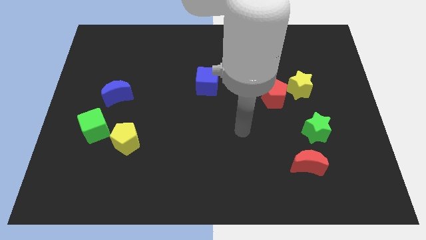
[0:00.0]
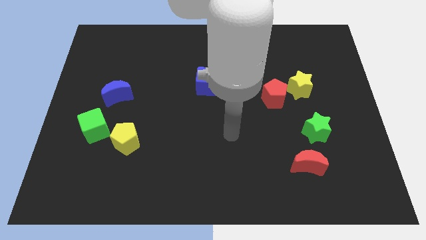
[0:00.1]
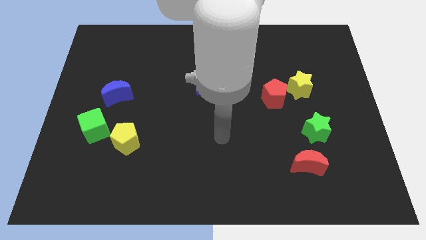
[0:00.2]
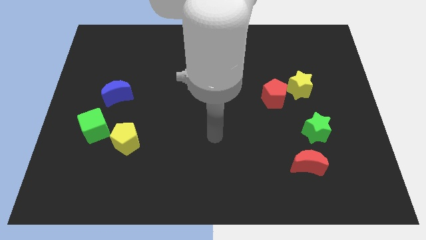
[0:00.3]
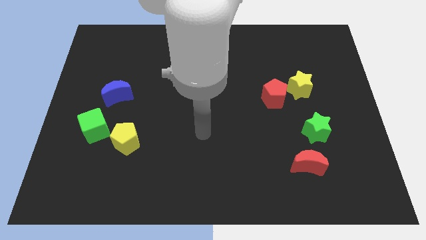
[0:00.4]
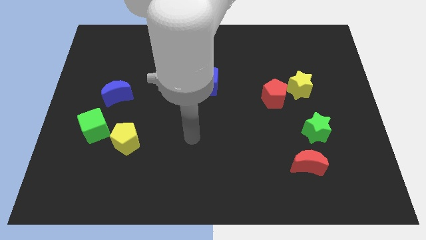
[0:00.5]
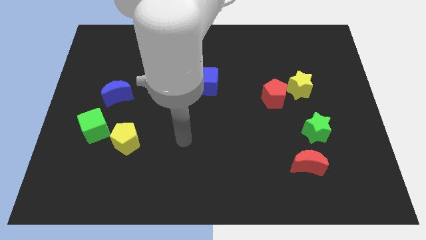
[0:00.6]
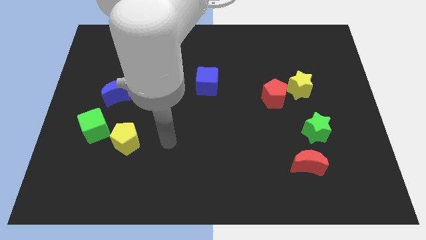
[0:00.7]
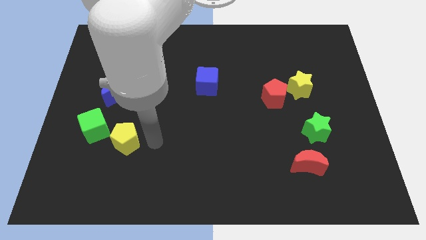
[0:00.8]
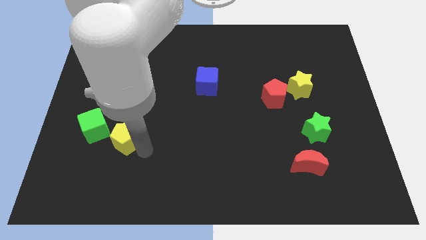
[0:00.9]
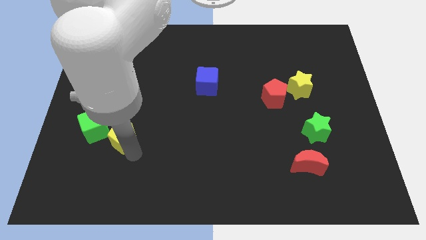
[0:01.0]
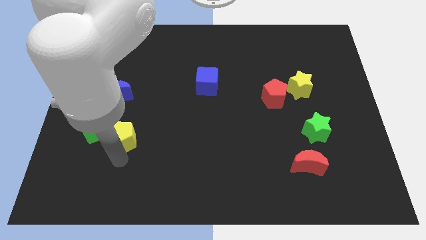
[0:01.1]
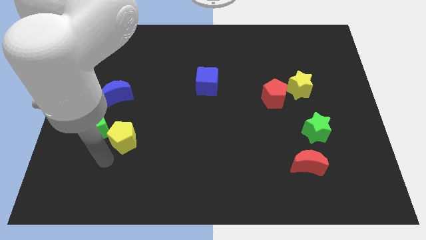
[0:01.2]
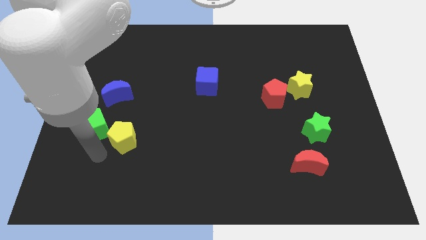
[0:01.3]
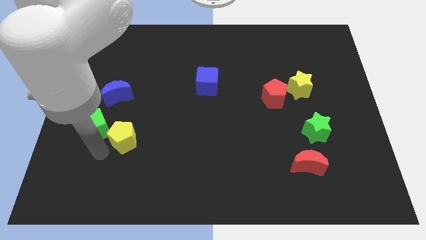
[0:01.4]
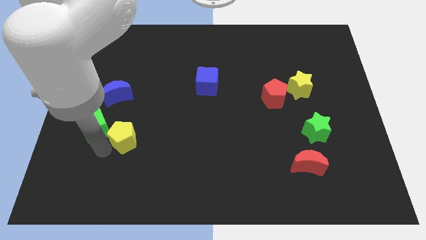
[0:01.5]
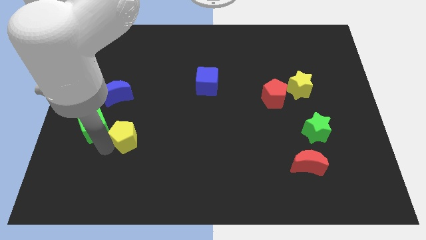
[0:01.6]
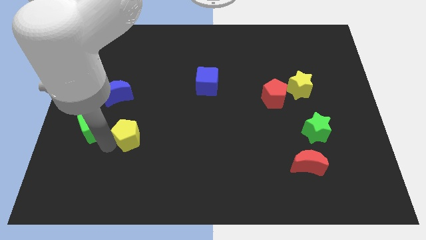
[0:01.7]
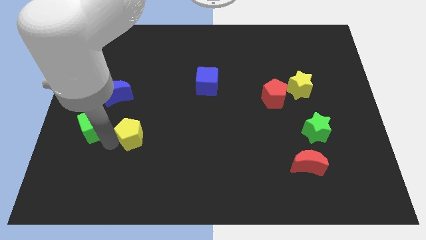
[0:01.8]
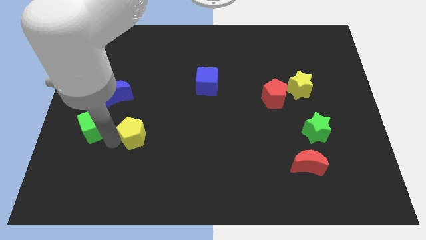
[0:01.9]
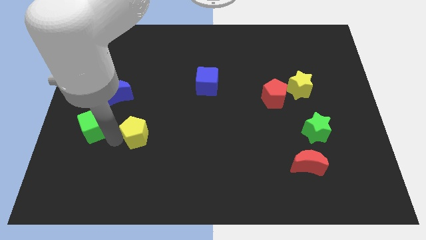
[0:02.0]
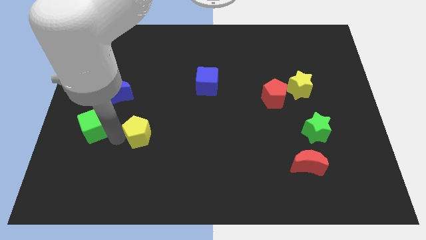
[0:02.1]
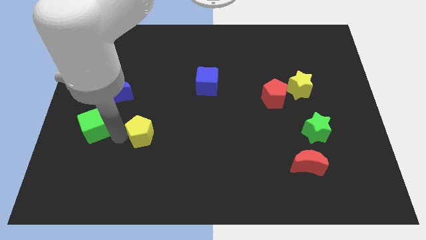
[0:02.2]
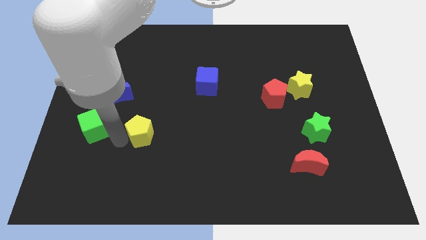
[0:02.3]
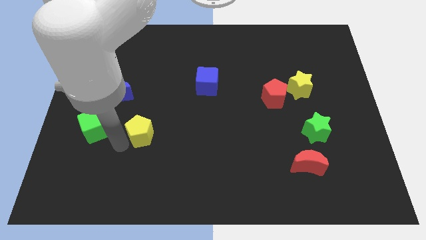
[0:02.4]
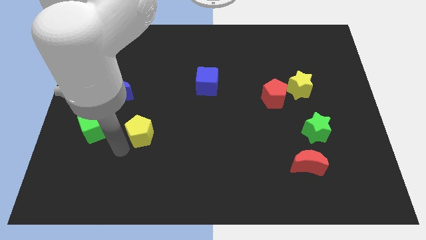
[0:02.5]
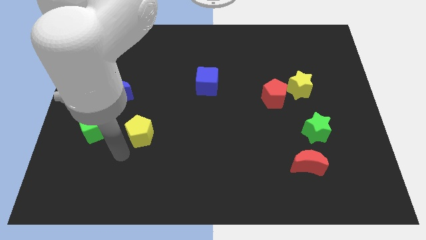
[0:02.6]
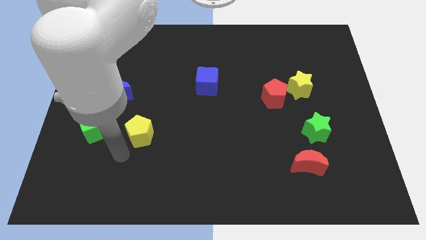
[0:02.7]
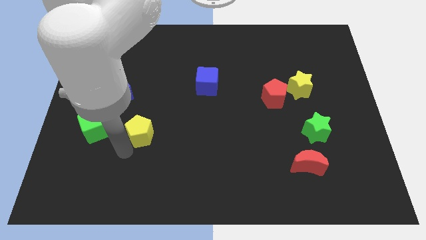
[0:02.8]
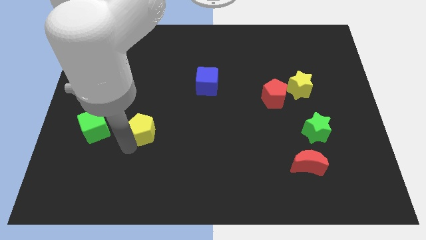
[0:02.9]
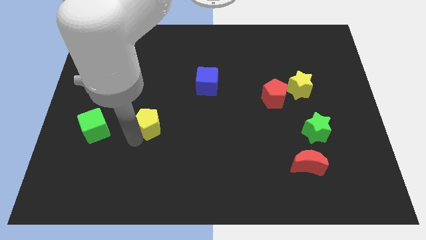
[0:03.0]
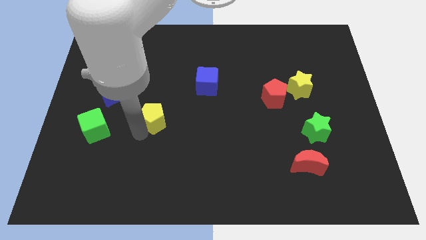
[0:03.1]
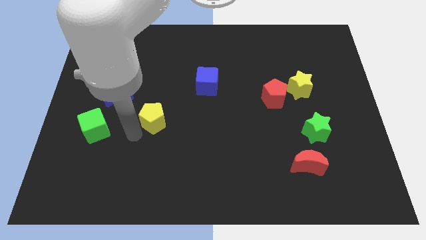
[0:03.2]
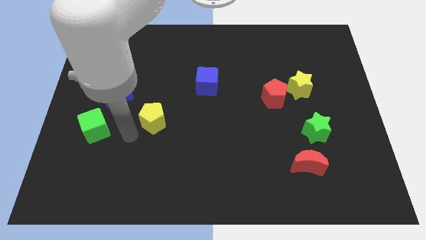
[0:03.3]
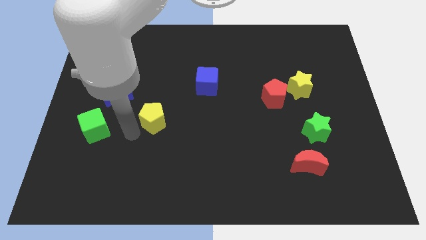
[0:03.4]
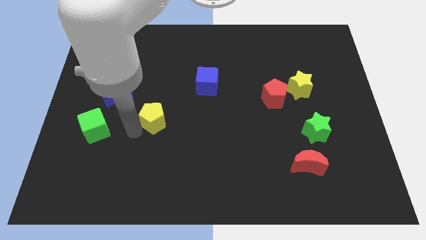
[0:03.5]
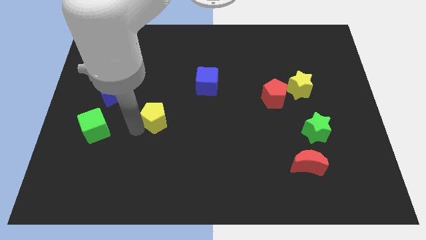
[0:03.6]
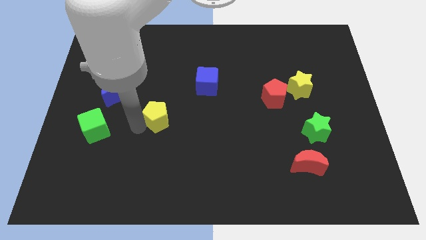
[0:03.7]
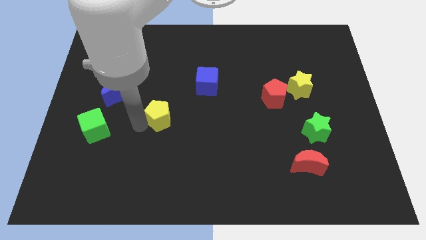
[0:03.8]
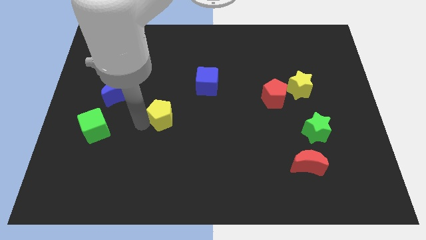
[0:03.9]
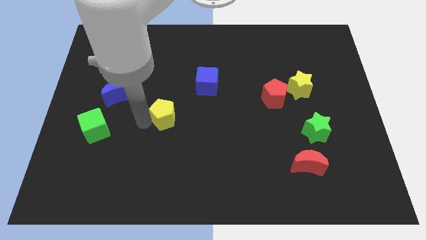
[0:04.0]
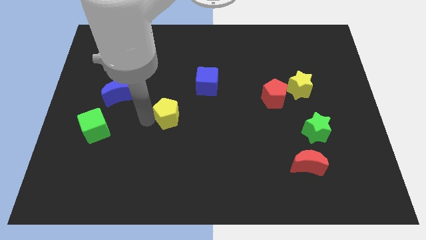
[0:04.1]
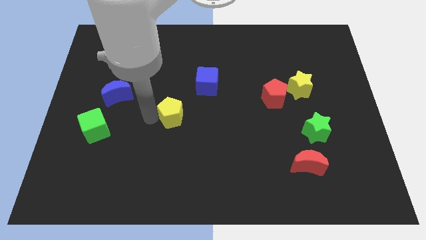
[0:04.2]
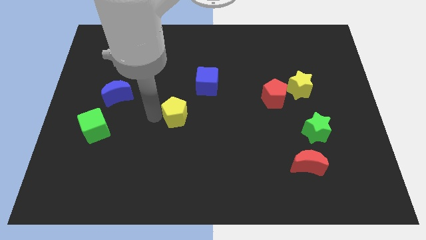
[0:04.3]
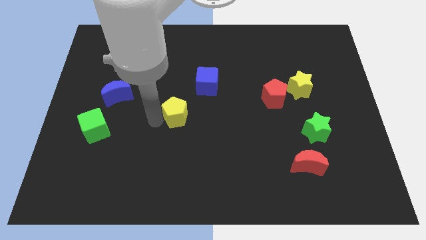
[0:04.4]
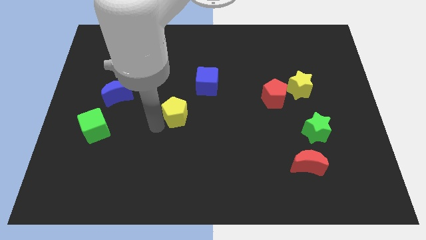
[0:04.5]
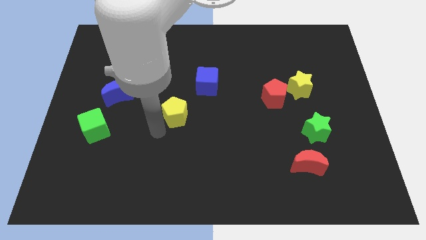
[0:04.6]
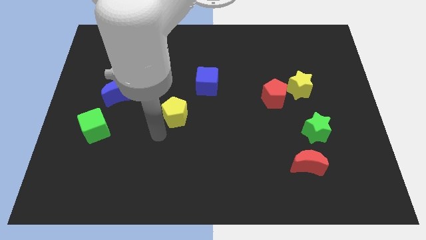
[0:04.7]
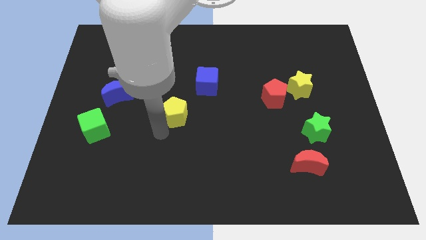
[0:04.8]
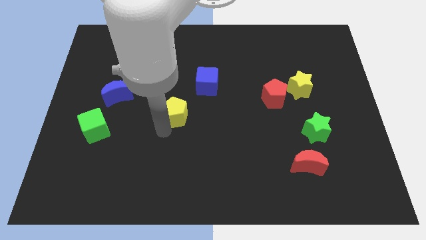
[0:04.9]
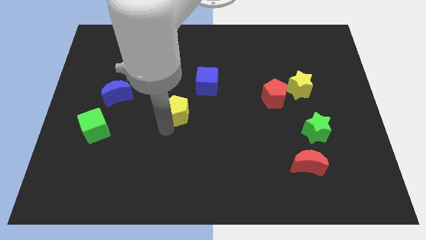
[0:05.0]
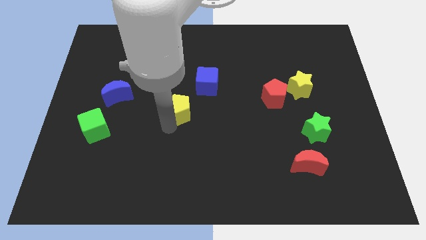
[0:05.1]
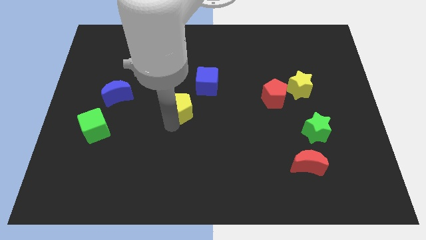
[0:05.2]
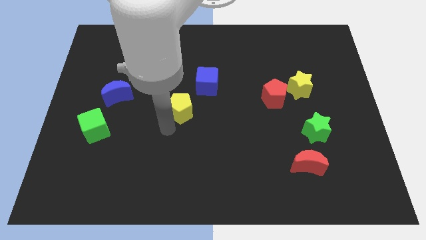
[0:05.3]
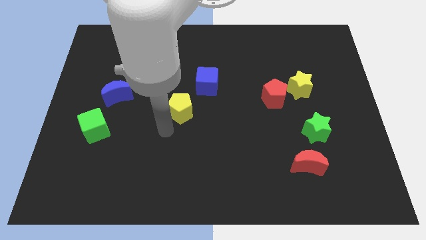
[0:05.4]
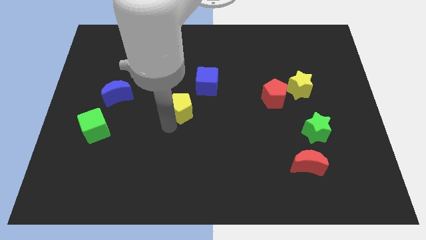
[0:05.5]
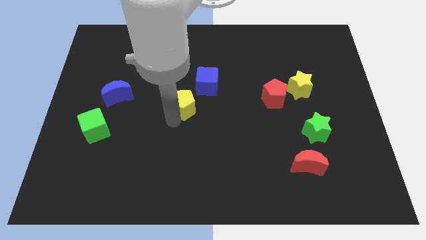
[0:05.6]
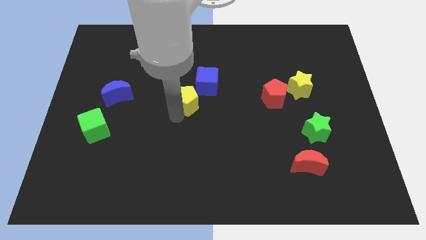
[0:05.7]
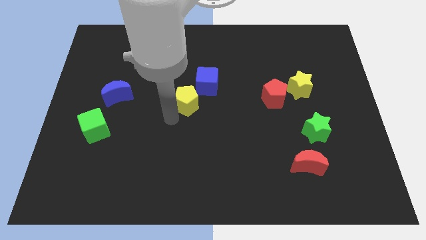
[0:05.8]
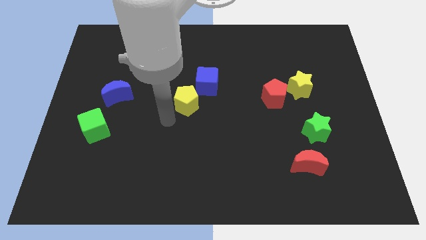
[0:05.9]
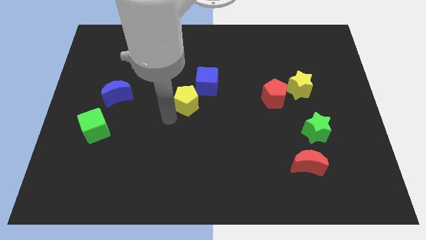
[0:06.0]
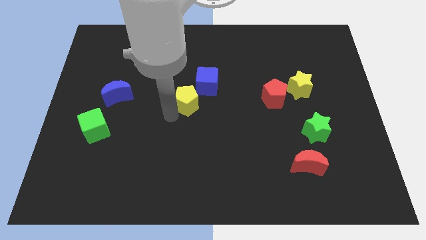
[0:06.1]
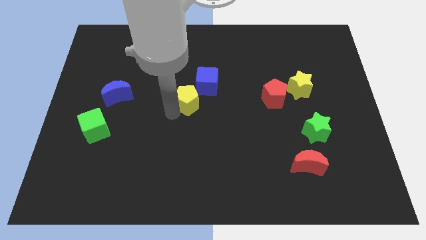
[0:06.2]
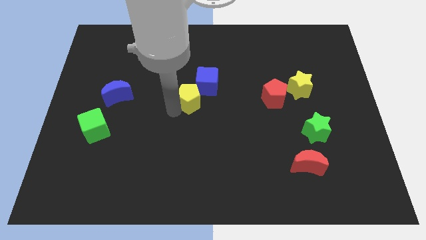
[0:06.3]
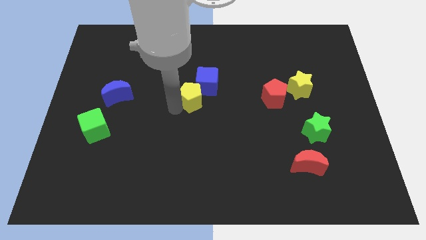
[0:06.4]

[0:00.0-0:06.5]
slide the yellow pentagon next to the blue cube

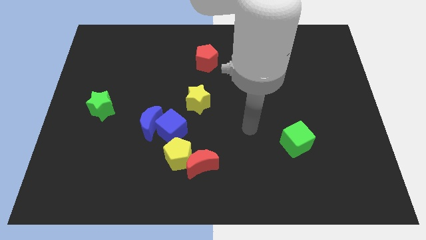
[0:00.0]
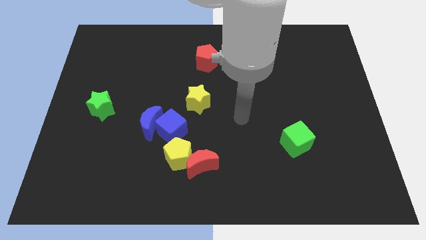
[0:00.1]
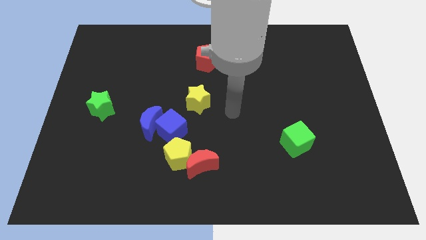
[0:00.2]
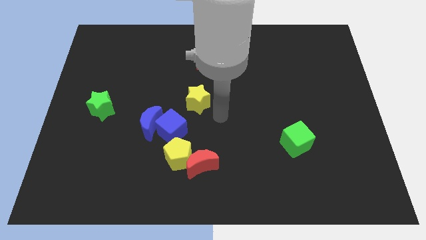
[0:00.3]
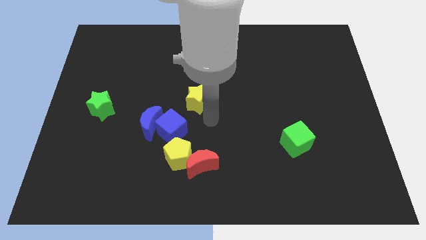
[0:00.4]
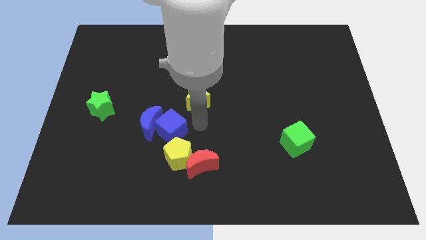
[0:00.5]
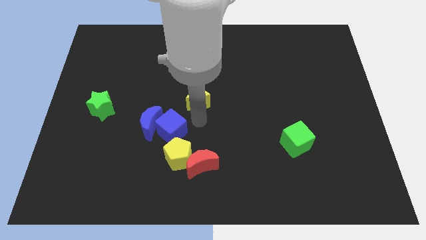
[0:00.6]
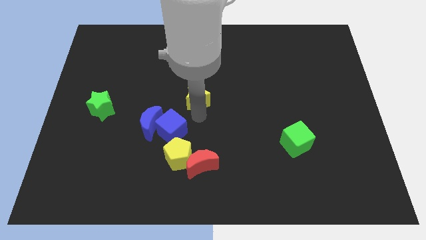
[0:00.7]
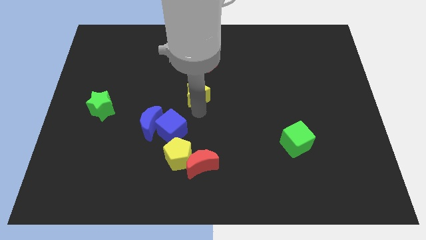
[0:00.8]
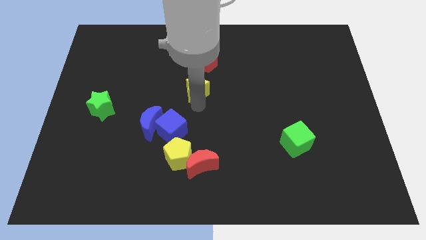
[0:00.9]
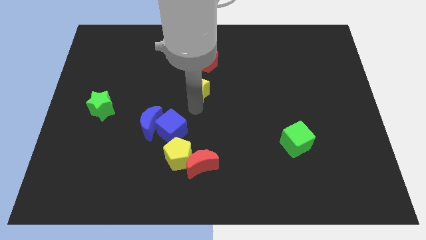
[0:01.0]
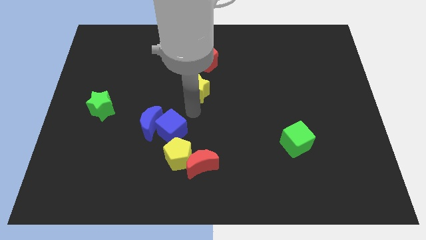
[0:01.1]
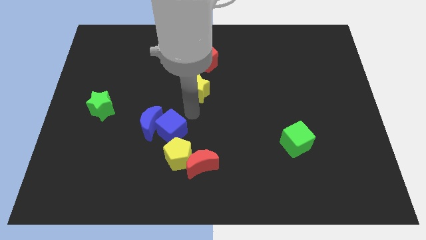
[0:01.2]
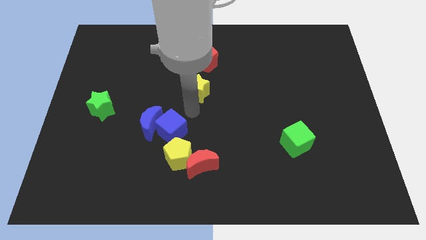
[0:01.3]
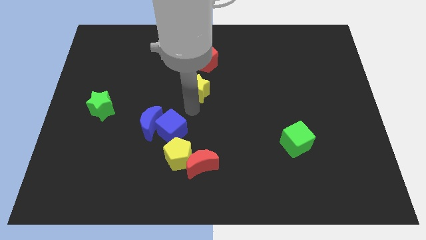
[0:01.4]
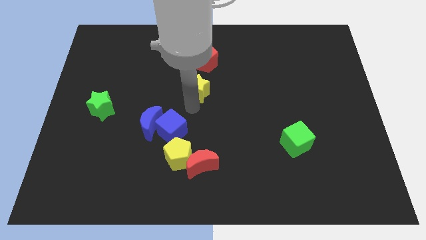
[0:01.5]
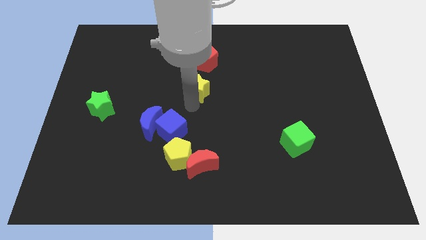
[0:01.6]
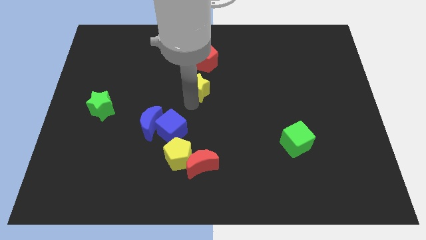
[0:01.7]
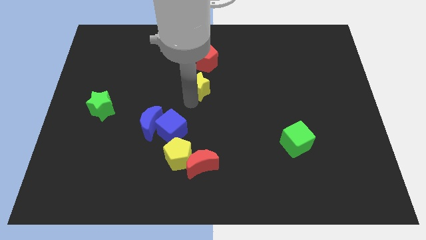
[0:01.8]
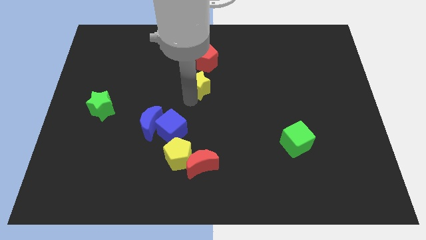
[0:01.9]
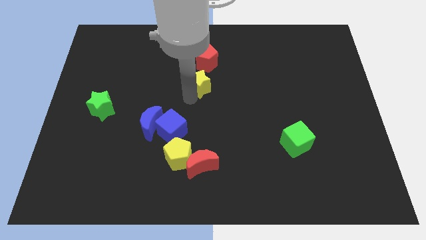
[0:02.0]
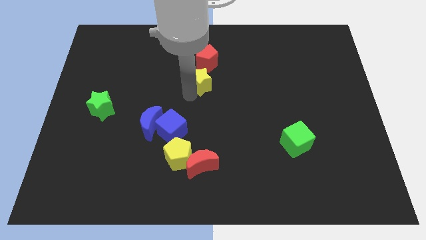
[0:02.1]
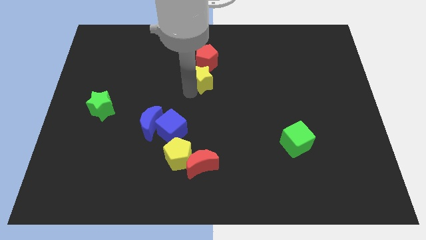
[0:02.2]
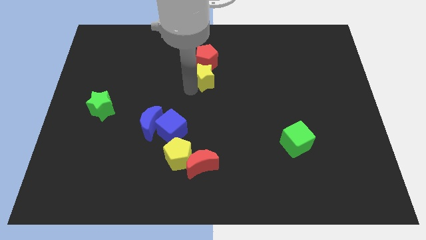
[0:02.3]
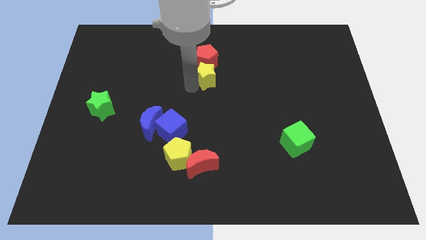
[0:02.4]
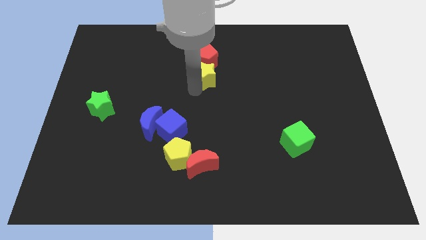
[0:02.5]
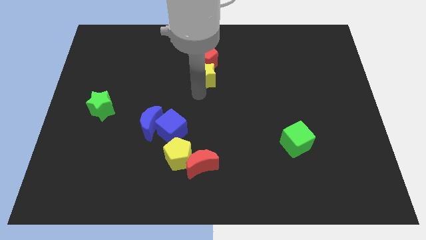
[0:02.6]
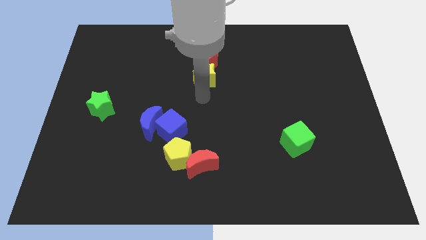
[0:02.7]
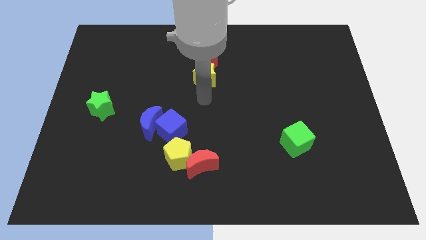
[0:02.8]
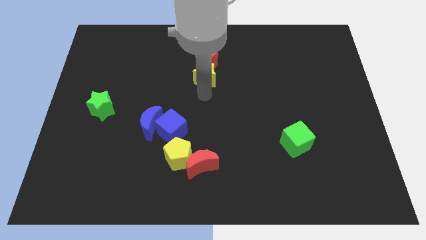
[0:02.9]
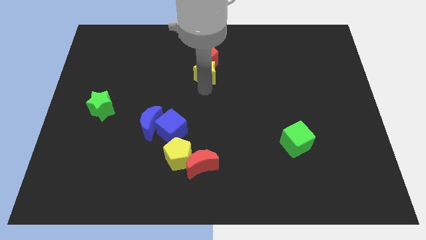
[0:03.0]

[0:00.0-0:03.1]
slide the yellow star next to the red pentagon
